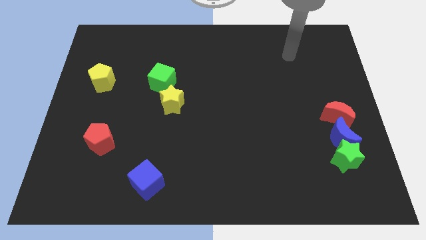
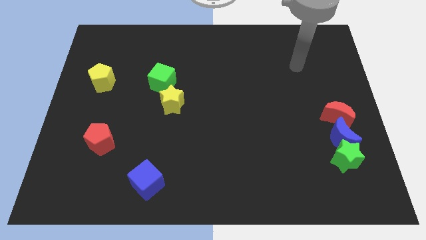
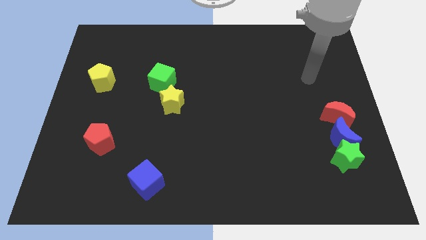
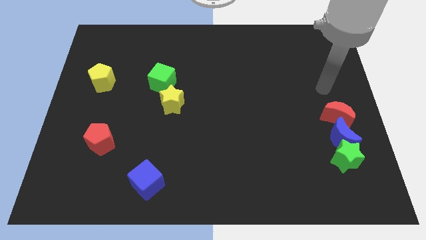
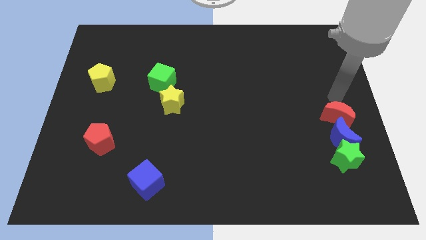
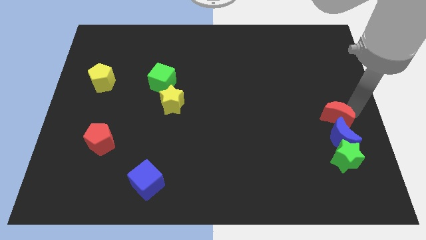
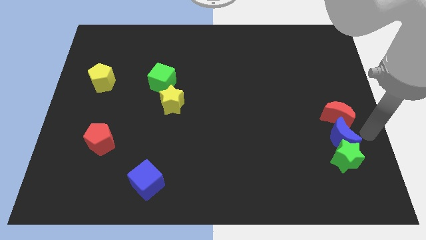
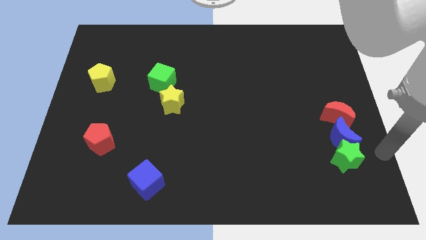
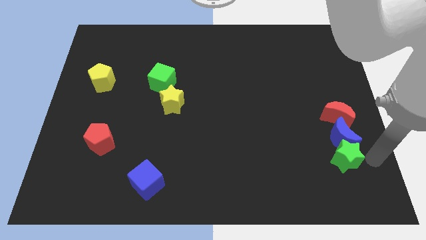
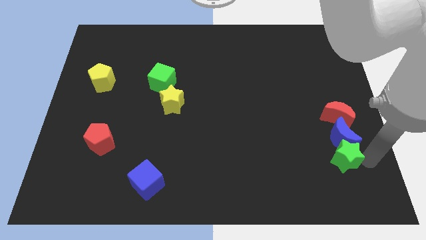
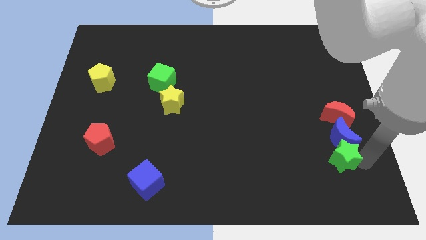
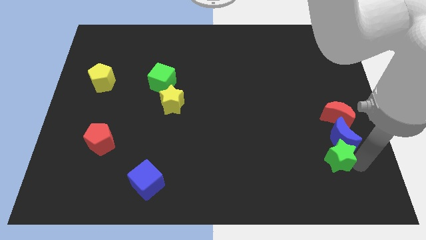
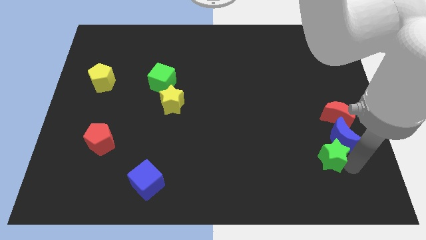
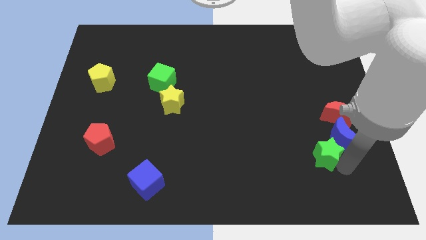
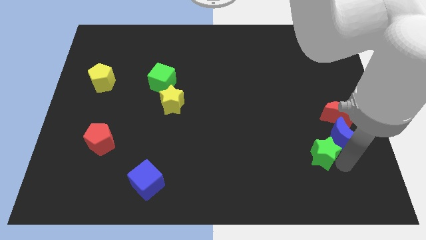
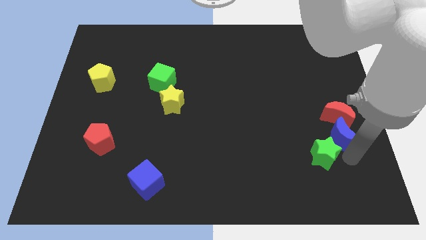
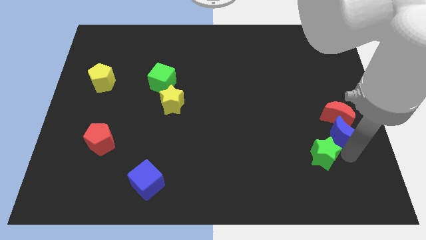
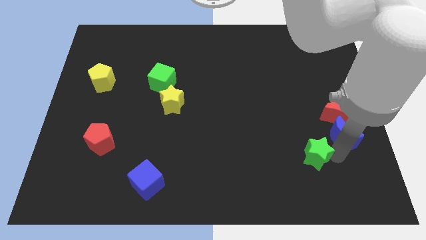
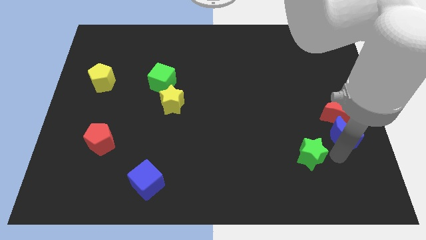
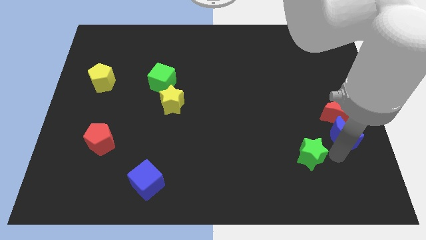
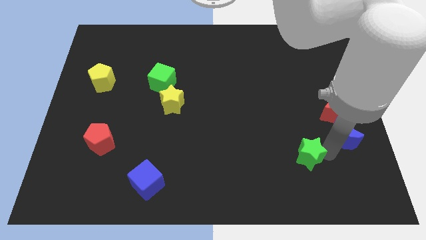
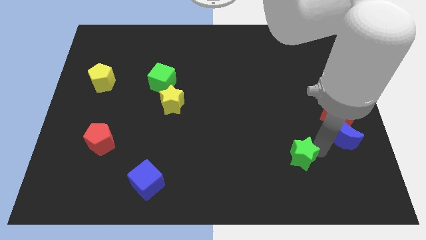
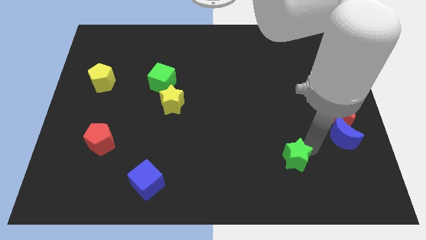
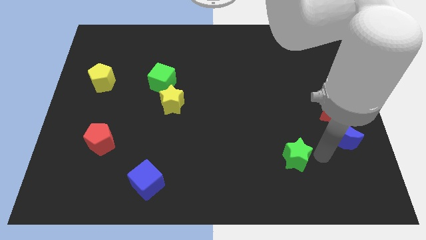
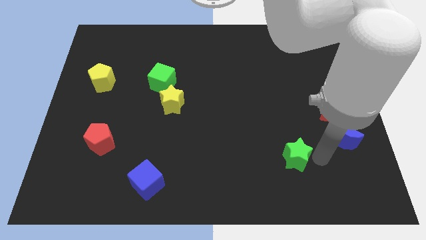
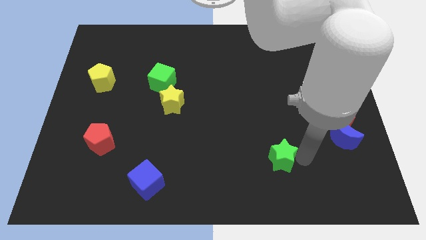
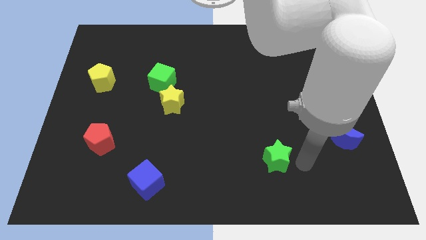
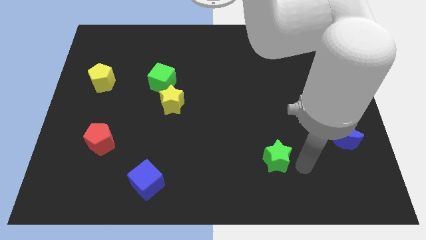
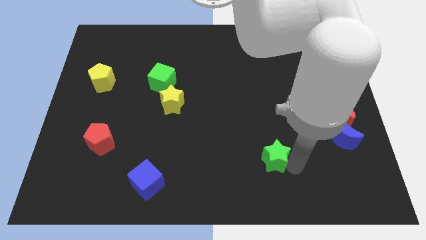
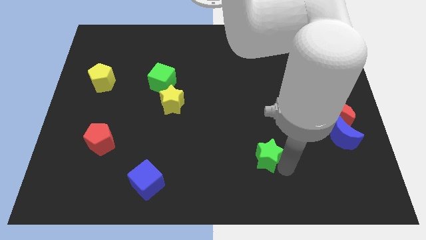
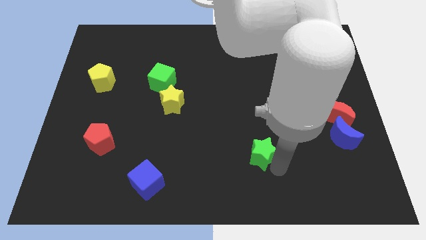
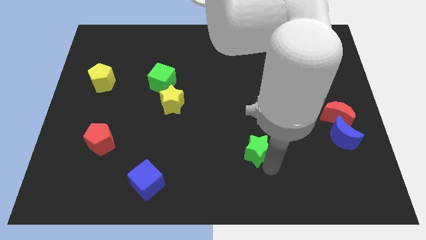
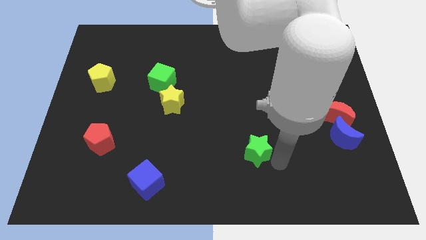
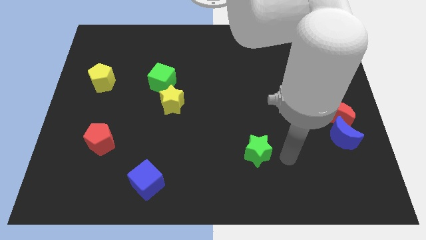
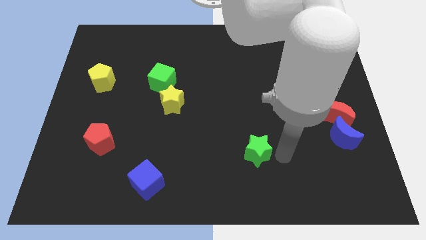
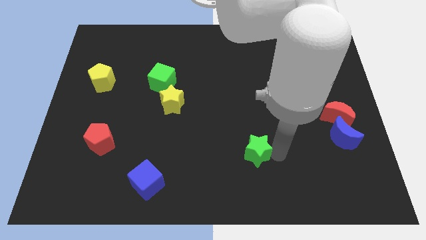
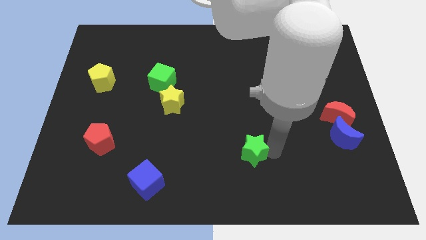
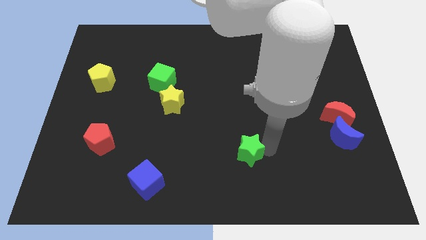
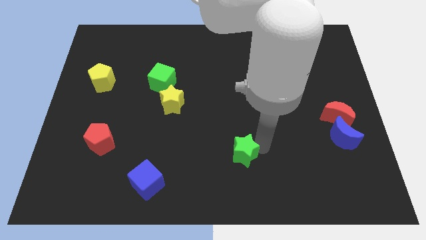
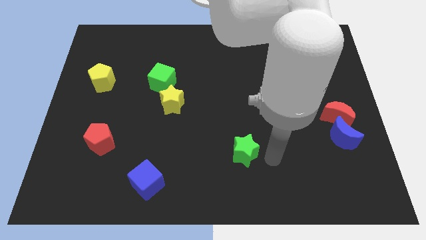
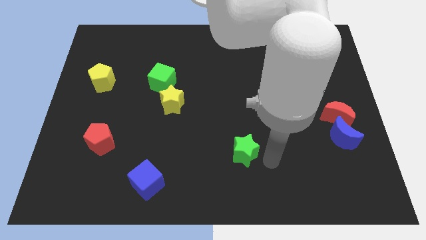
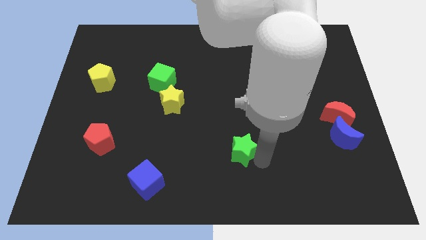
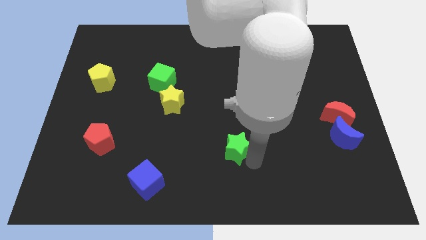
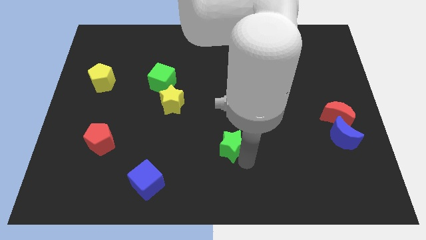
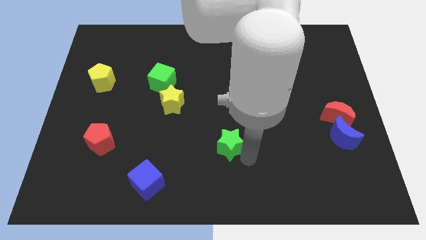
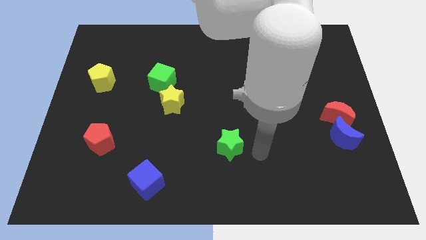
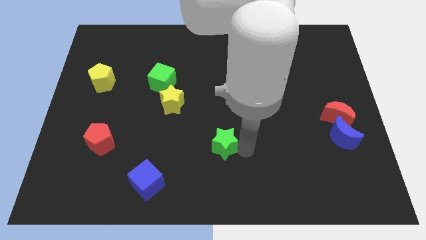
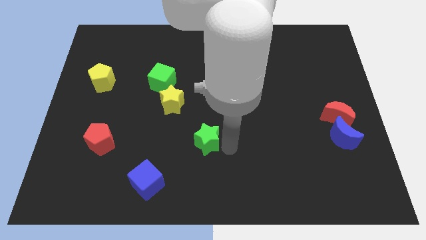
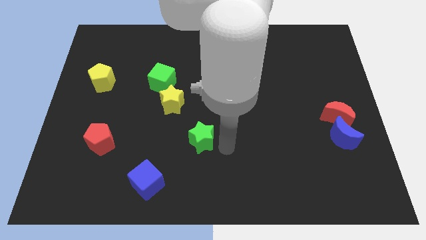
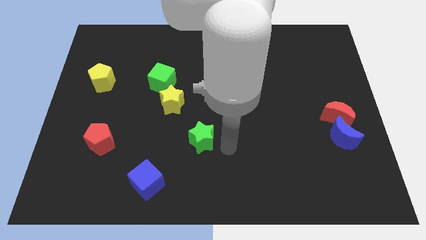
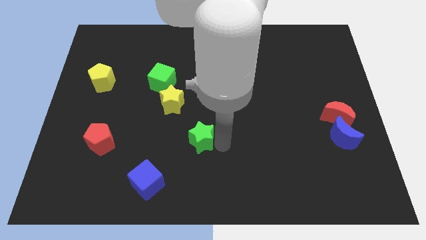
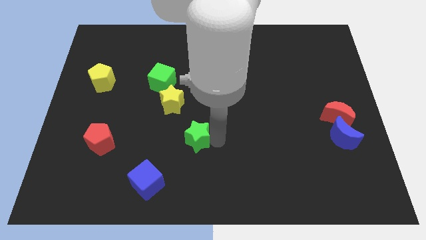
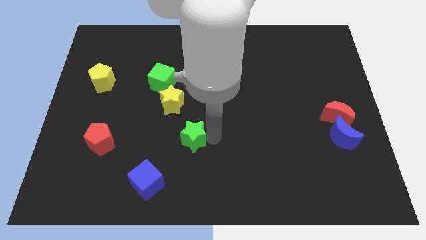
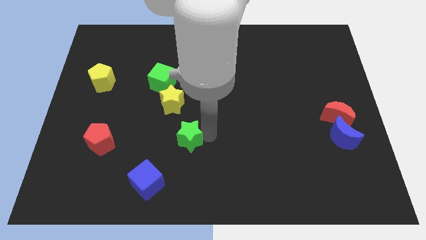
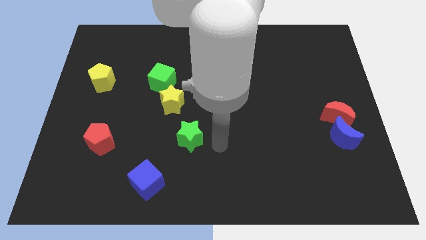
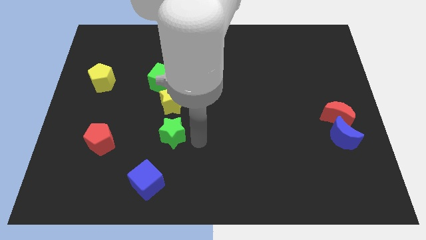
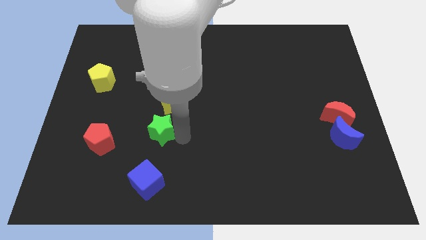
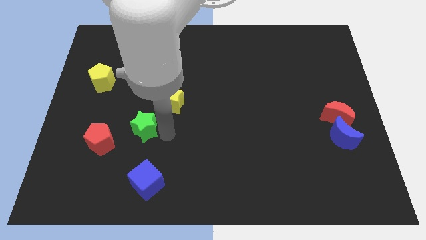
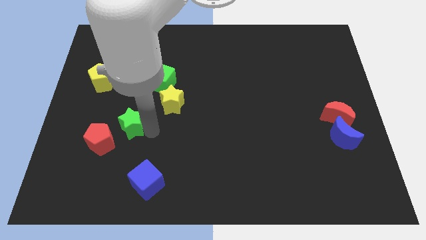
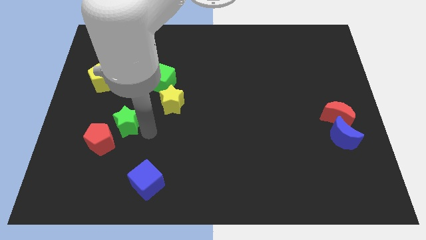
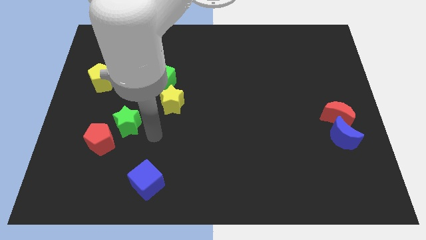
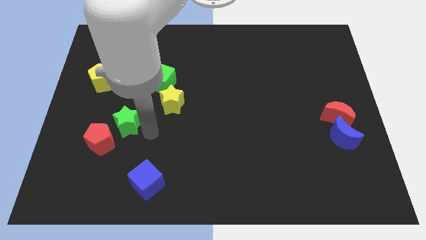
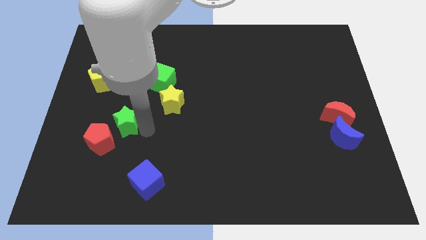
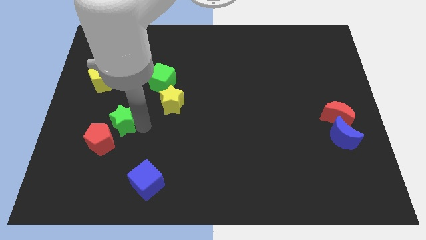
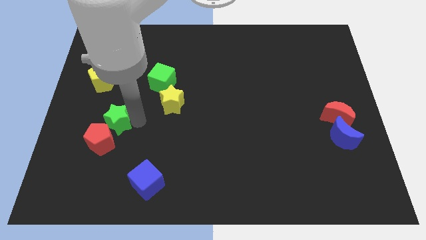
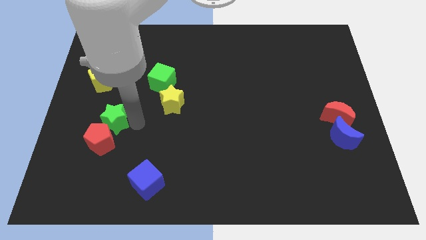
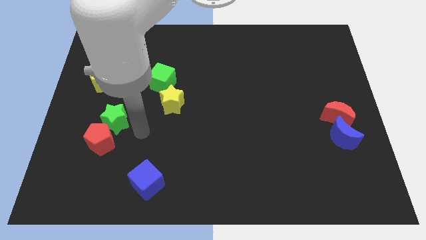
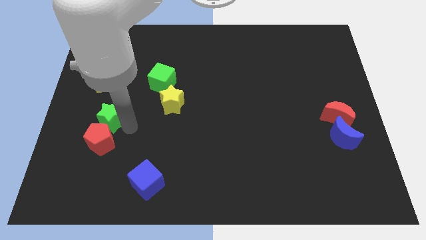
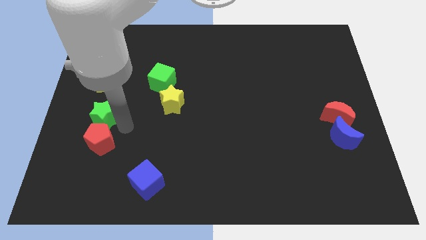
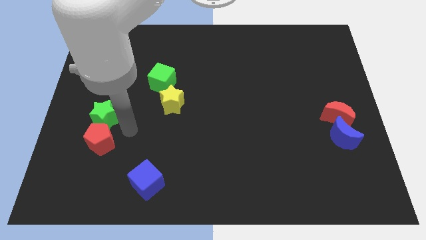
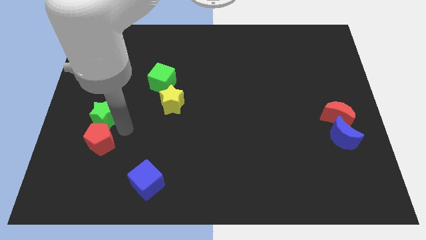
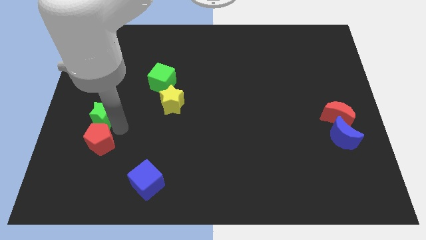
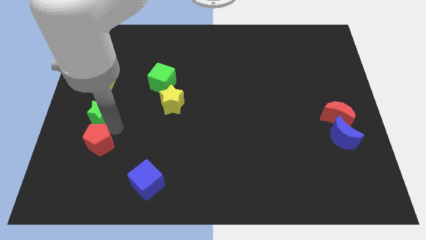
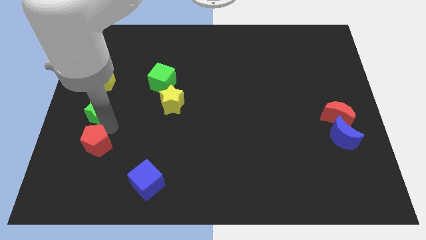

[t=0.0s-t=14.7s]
move the green star to the center left
